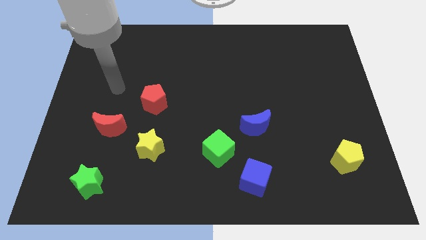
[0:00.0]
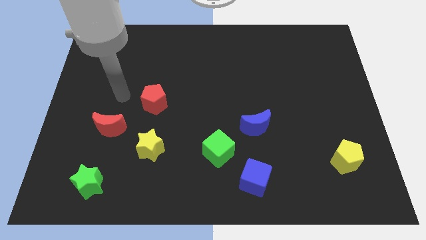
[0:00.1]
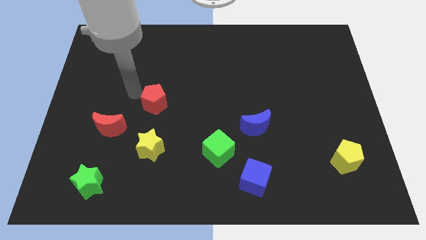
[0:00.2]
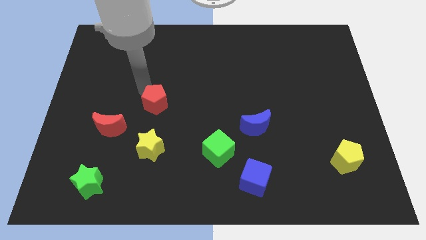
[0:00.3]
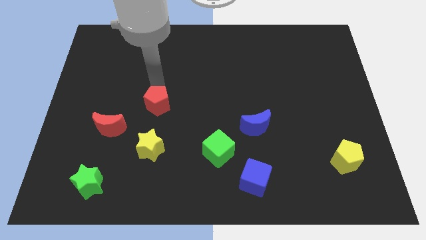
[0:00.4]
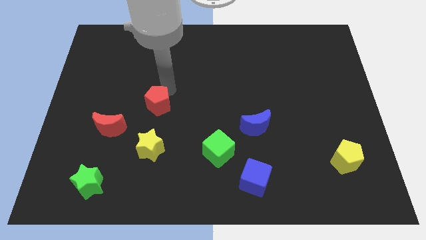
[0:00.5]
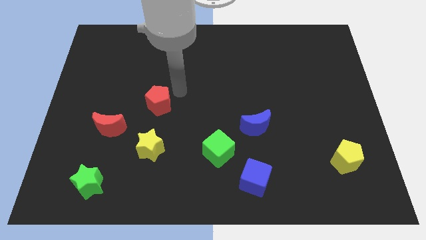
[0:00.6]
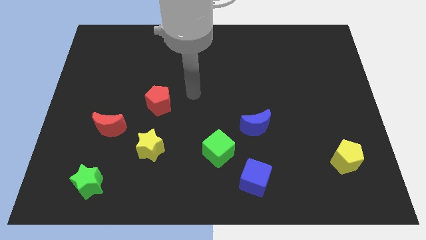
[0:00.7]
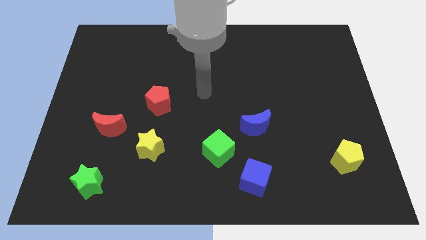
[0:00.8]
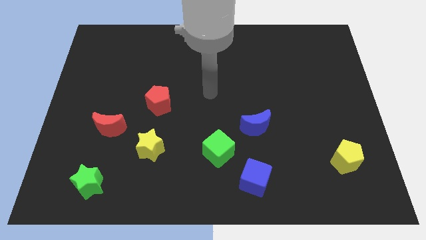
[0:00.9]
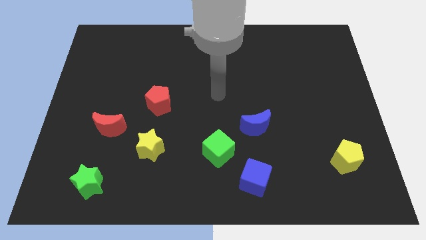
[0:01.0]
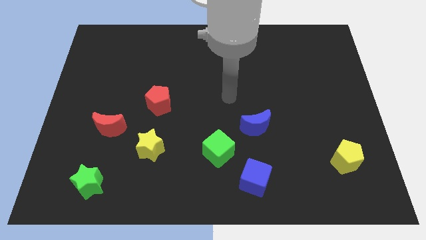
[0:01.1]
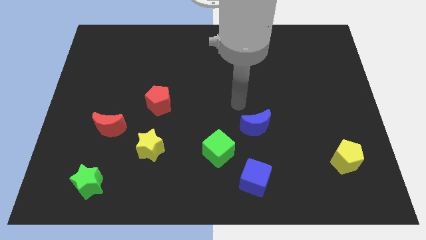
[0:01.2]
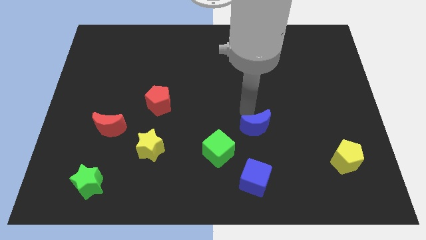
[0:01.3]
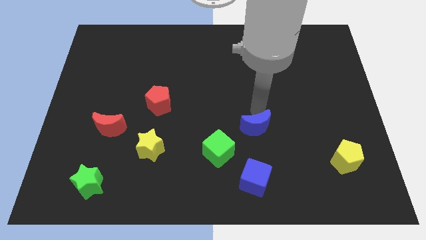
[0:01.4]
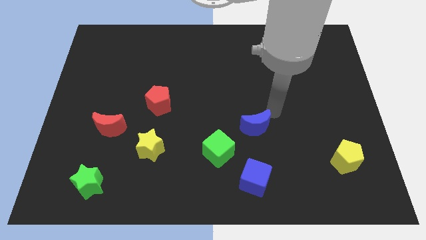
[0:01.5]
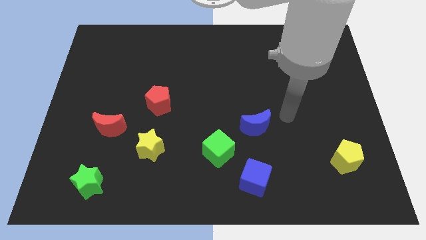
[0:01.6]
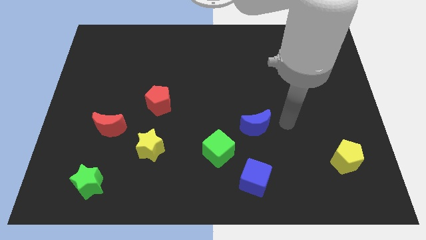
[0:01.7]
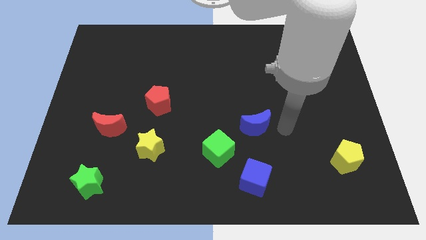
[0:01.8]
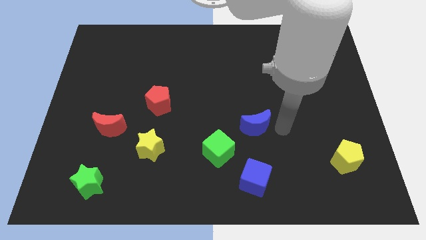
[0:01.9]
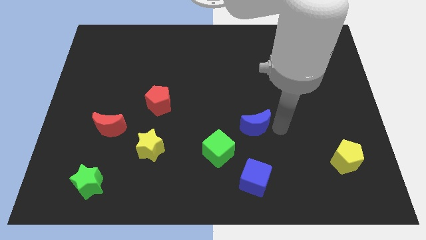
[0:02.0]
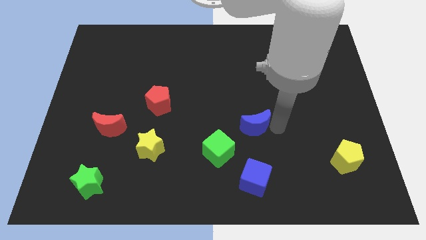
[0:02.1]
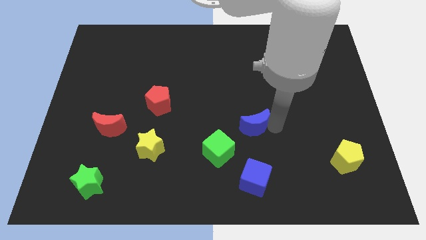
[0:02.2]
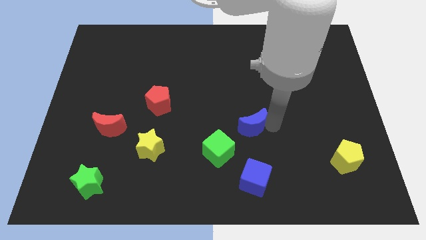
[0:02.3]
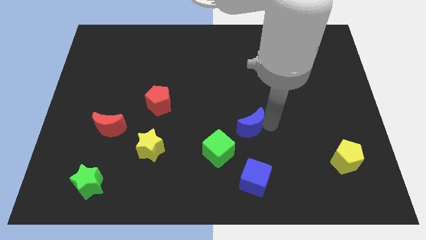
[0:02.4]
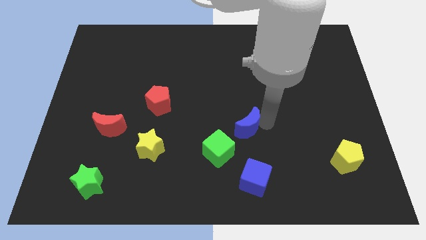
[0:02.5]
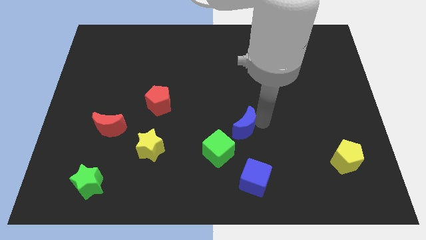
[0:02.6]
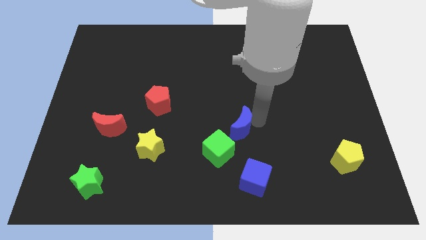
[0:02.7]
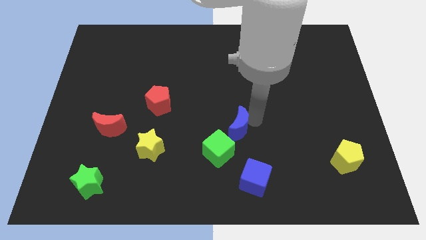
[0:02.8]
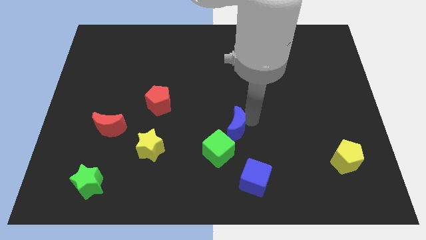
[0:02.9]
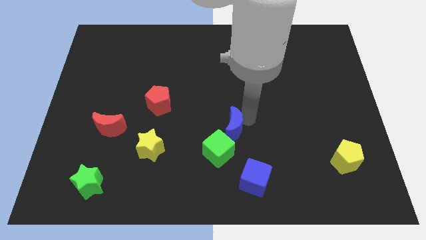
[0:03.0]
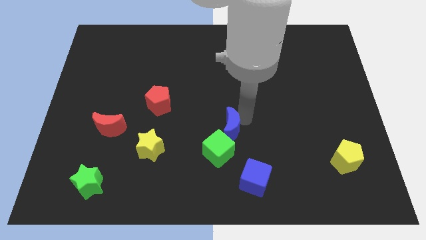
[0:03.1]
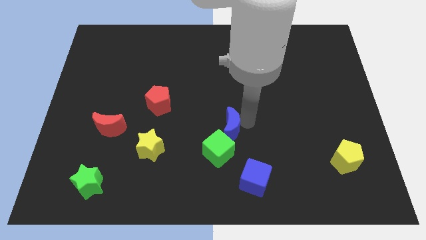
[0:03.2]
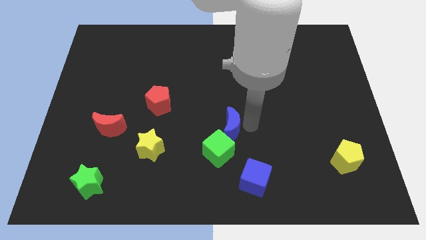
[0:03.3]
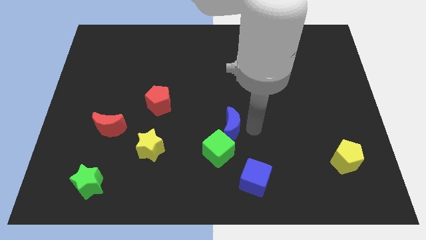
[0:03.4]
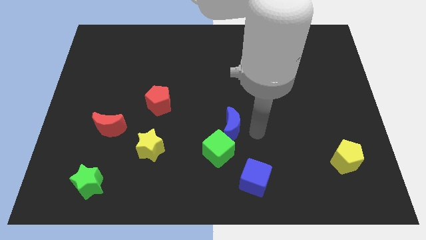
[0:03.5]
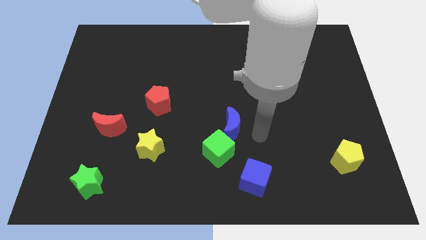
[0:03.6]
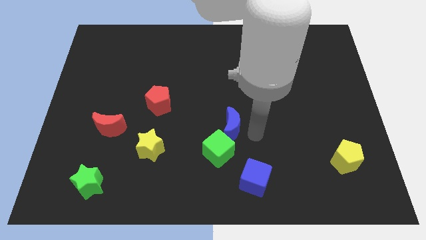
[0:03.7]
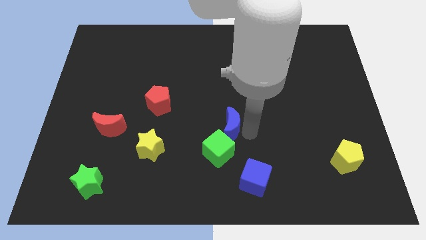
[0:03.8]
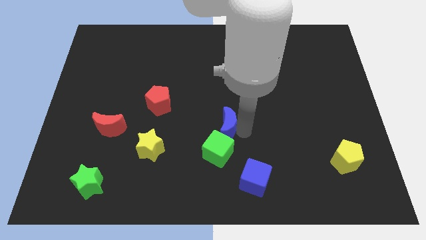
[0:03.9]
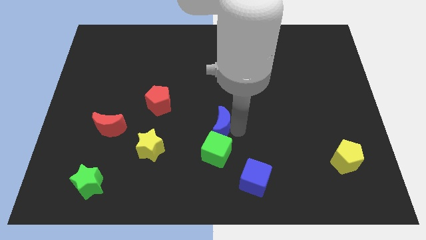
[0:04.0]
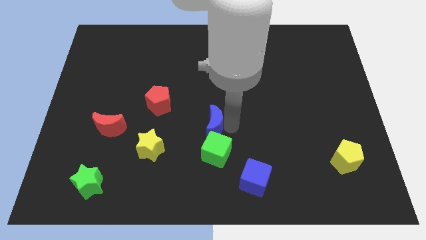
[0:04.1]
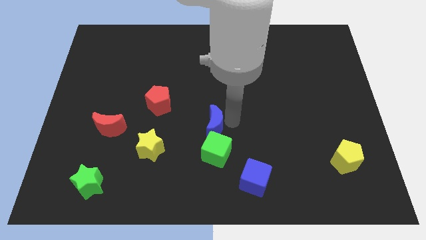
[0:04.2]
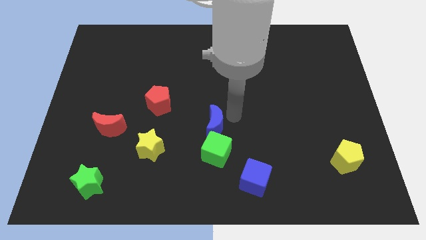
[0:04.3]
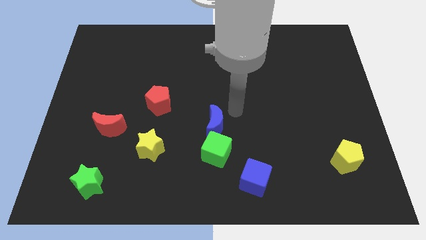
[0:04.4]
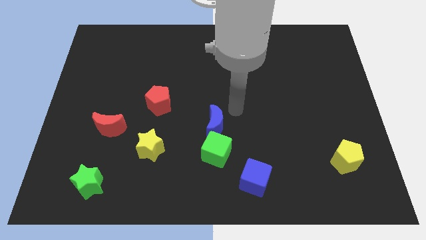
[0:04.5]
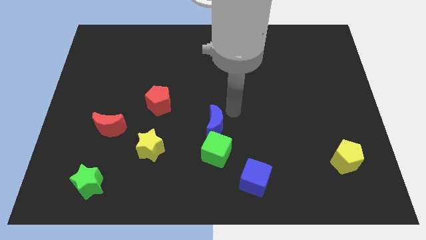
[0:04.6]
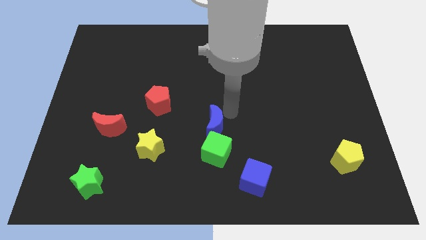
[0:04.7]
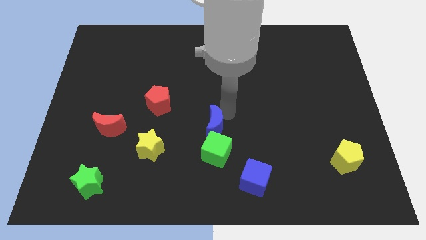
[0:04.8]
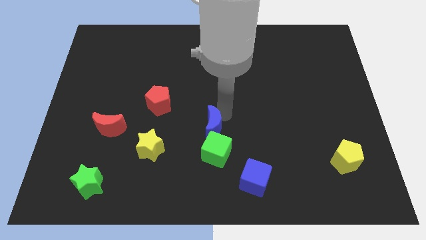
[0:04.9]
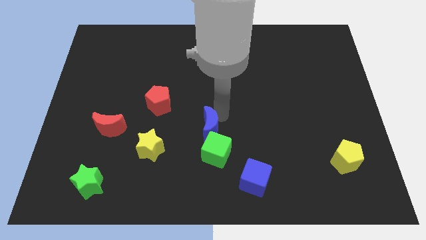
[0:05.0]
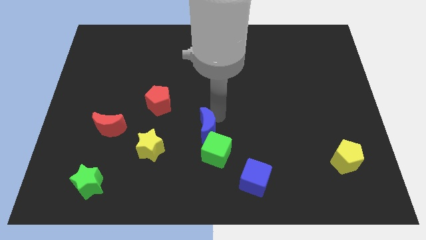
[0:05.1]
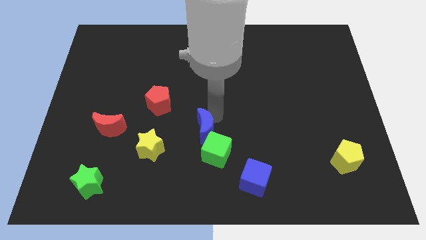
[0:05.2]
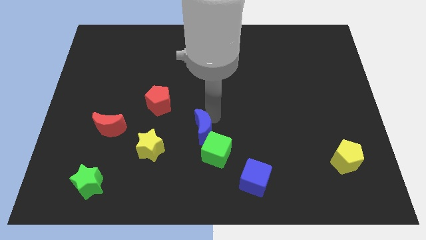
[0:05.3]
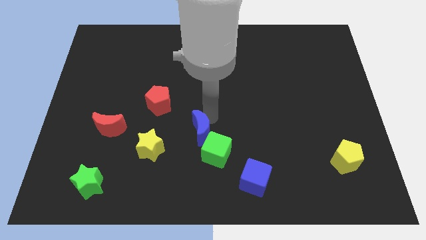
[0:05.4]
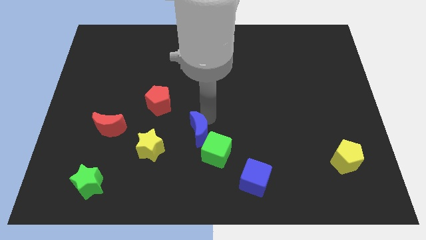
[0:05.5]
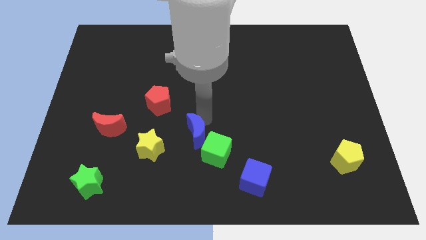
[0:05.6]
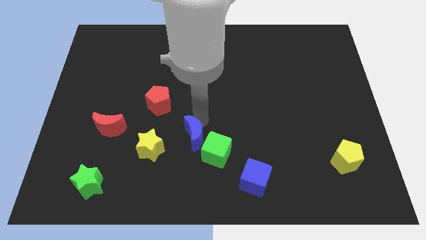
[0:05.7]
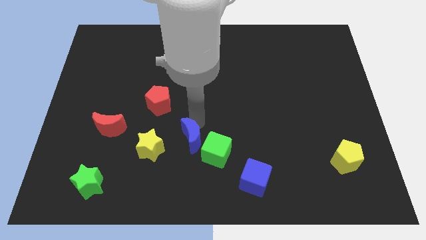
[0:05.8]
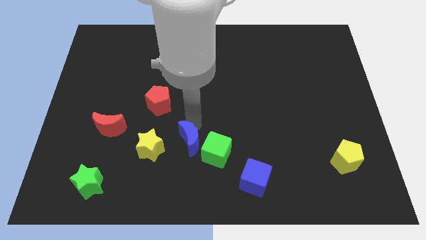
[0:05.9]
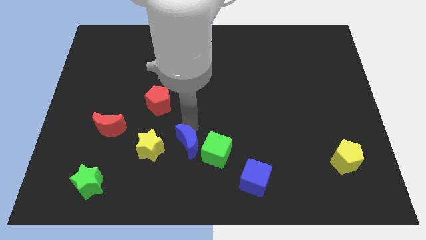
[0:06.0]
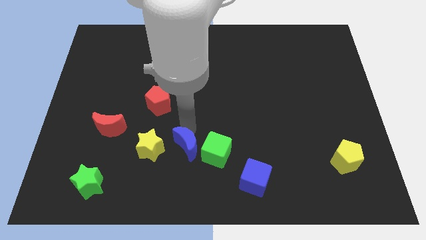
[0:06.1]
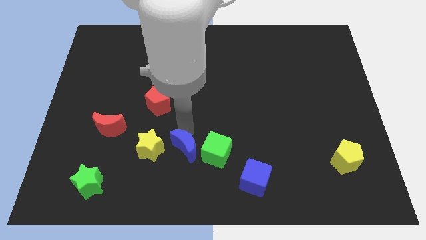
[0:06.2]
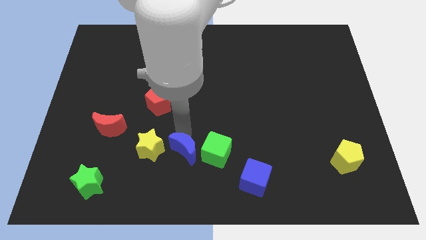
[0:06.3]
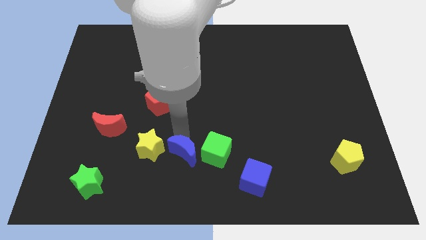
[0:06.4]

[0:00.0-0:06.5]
slide the blue moon diagonally down and to the right of the yellow star
